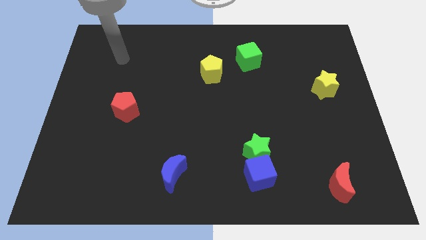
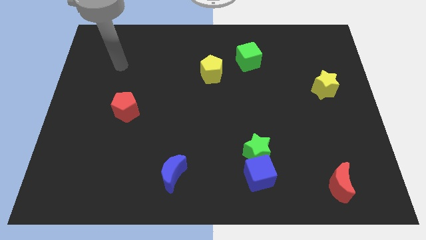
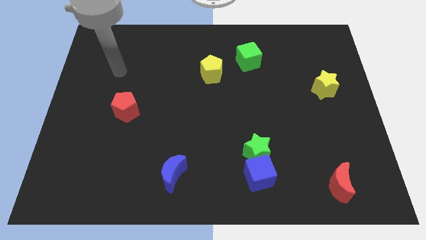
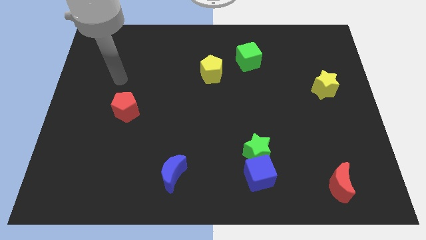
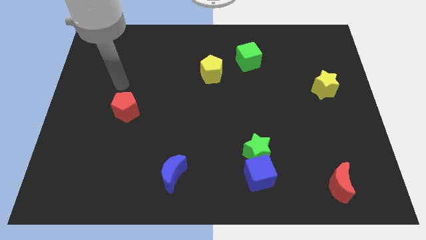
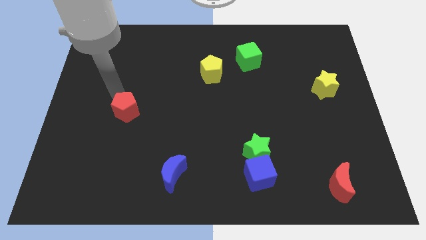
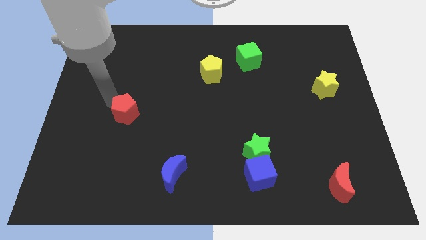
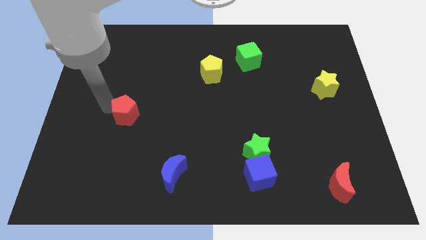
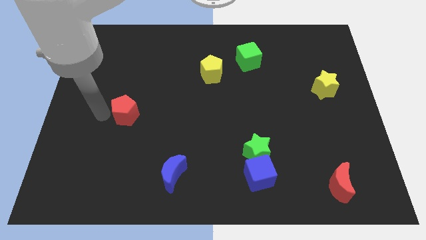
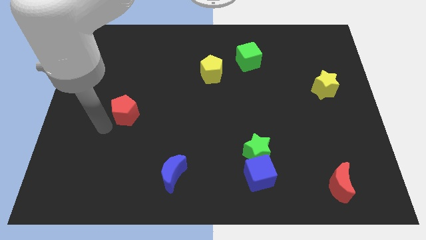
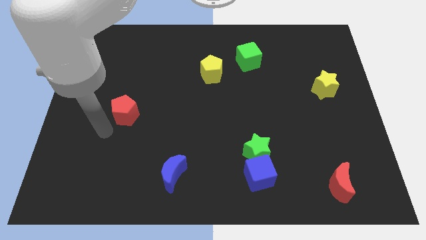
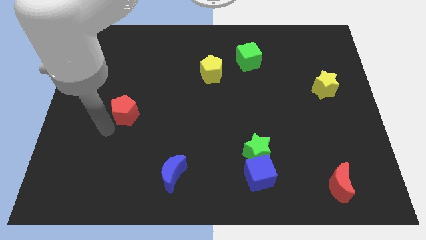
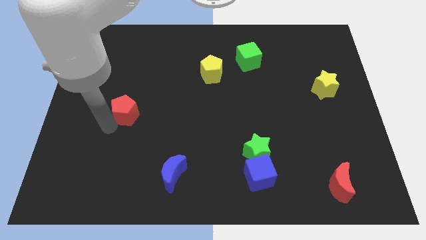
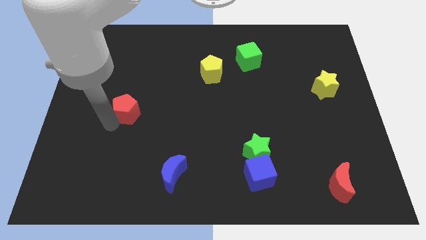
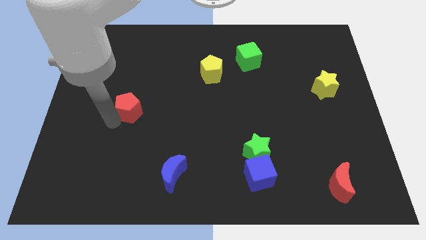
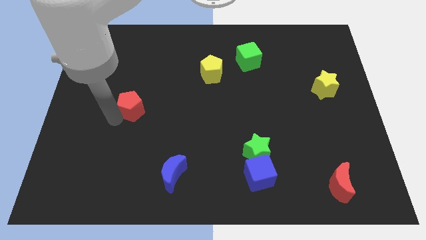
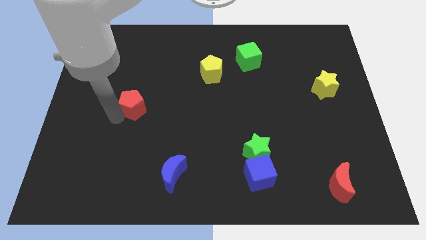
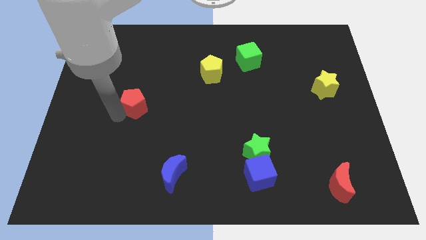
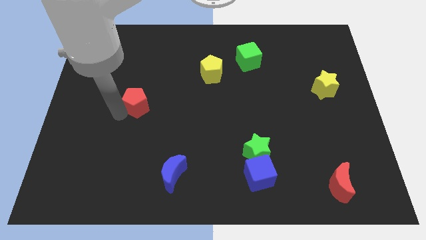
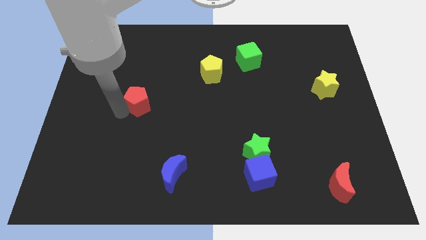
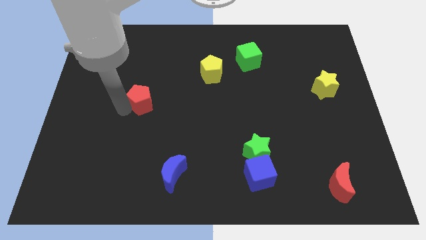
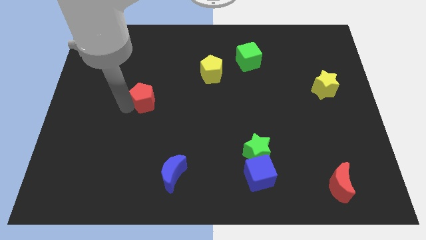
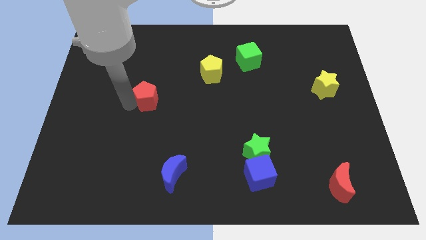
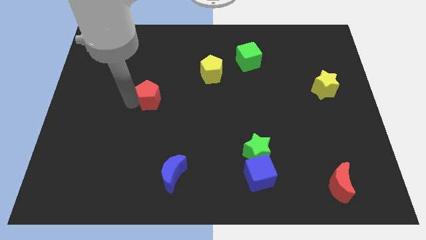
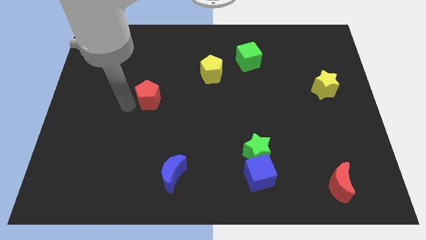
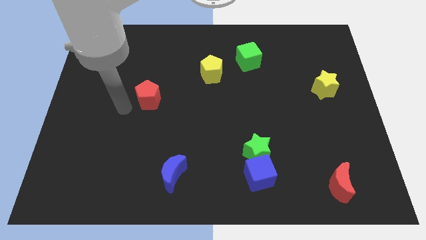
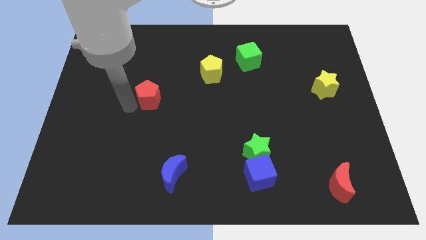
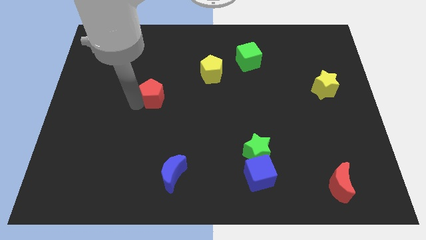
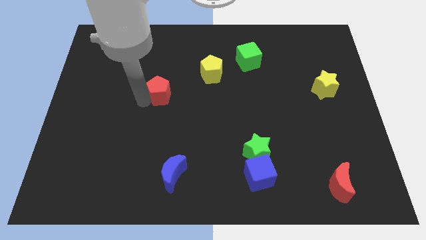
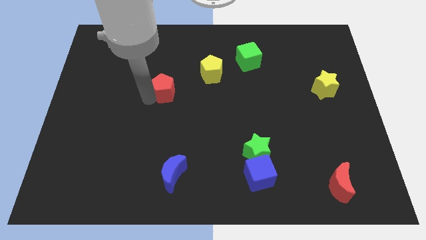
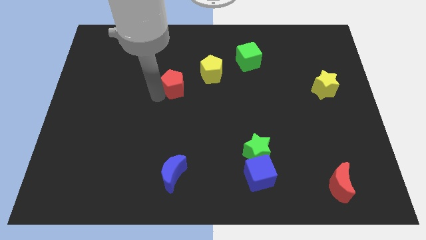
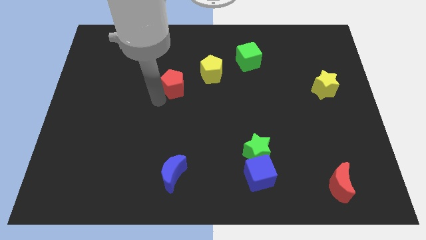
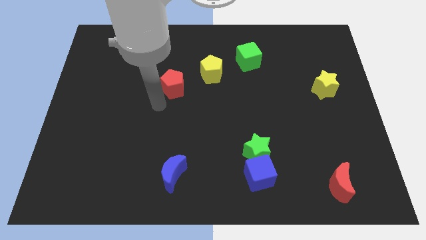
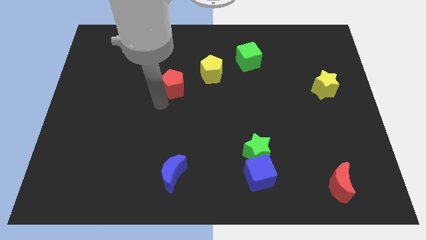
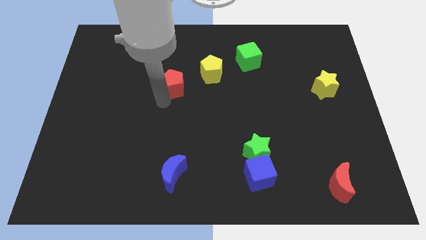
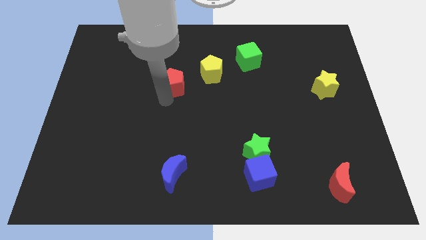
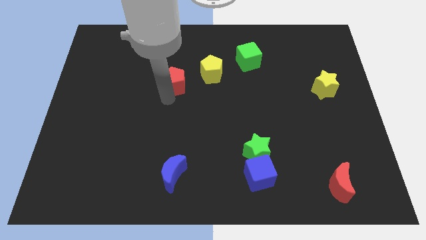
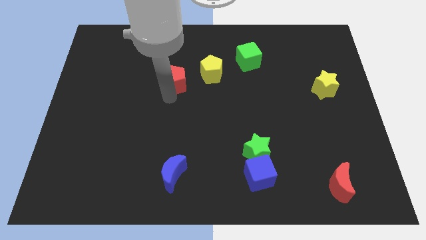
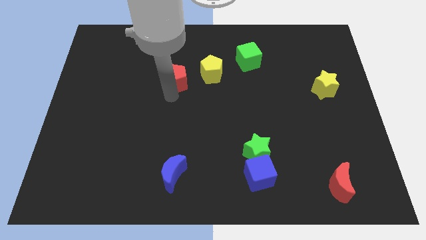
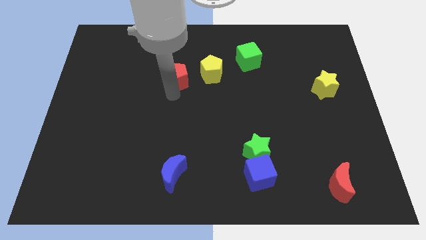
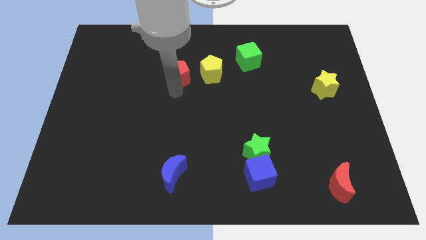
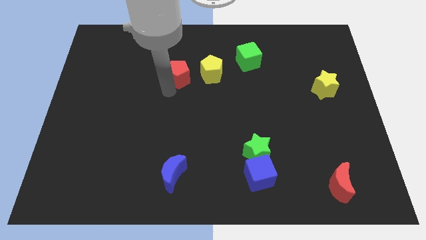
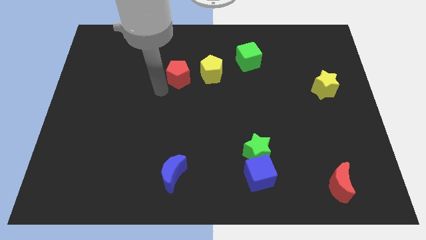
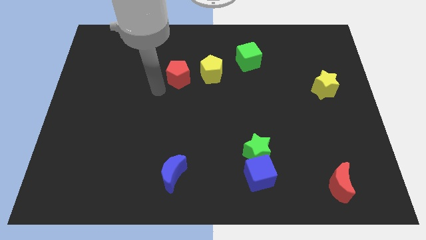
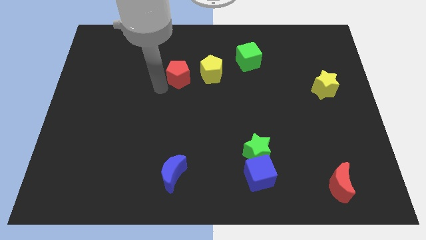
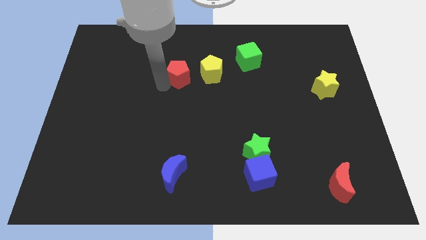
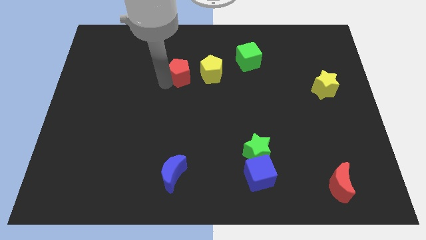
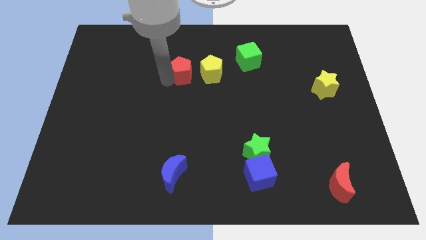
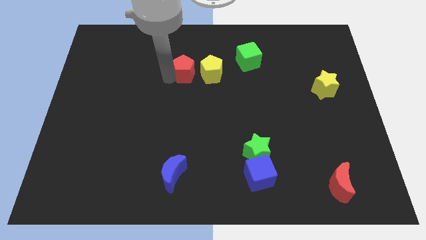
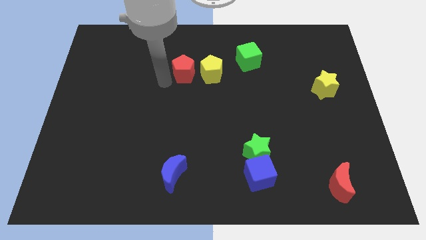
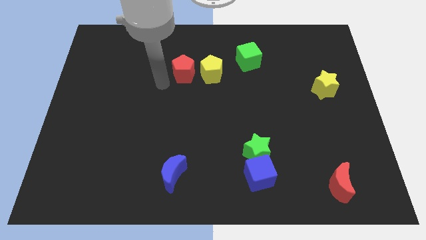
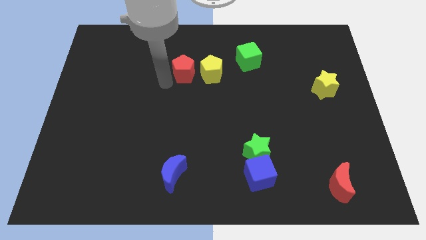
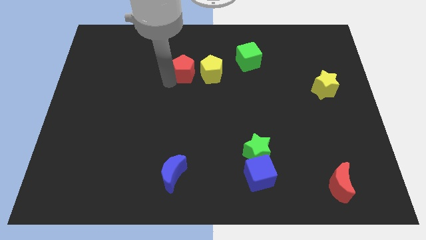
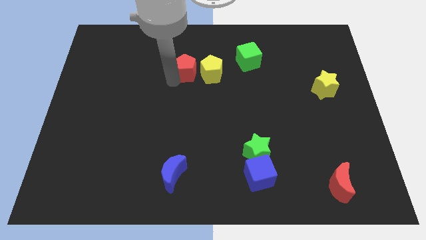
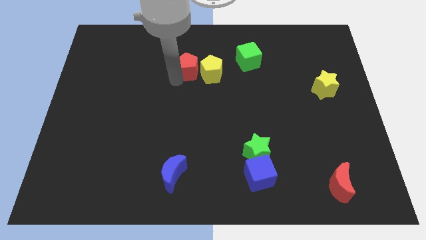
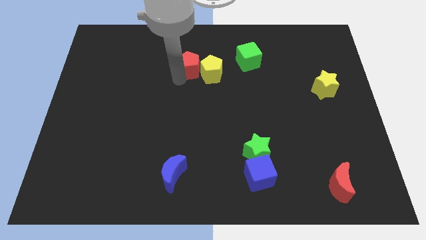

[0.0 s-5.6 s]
push the red pentagon to the left side of the green cube

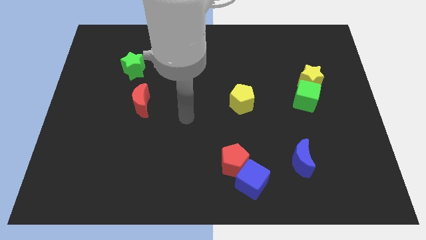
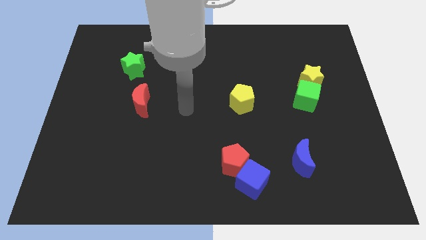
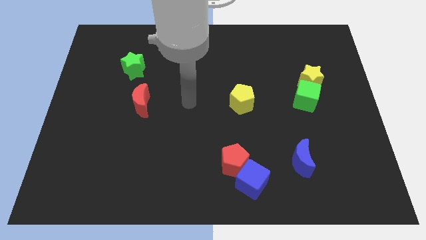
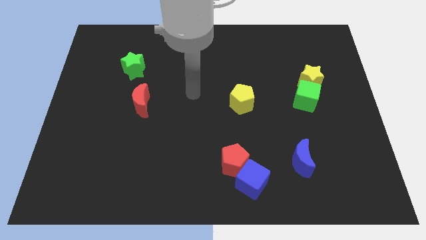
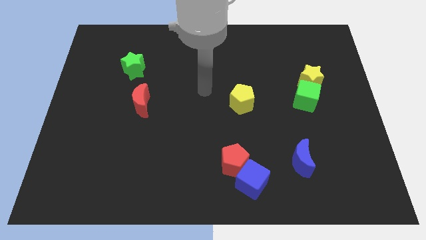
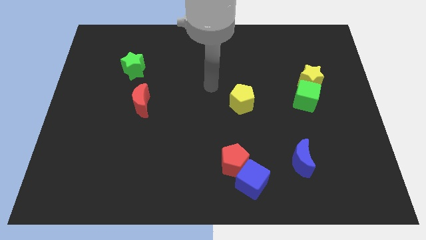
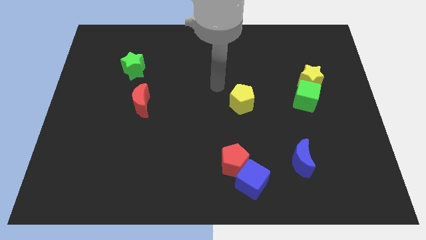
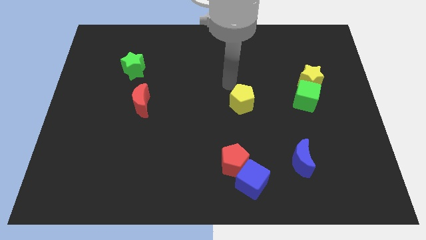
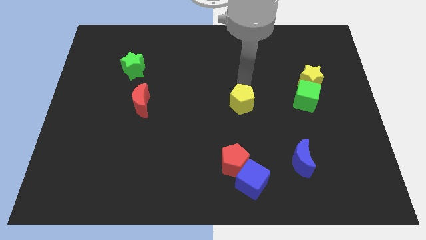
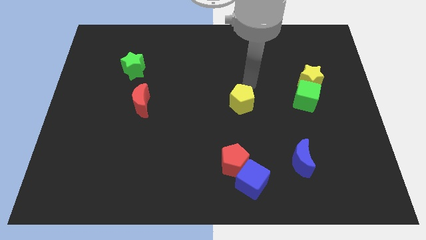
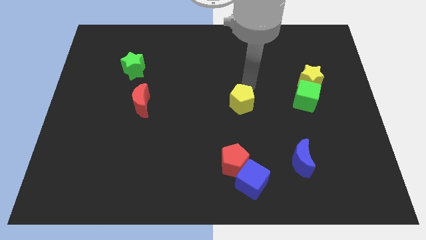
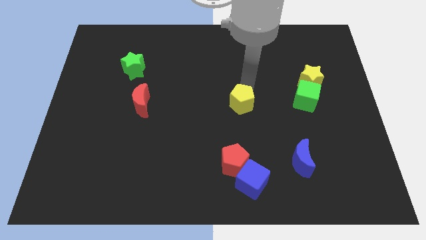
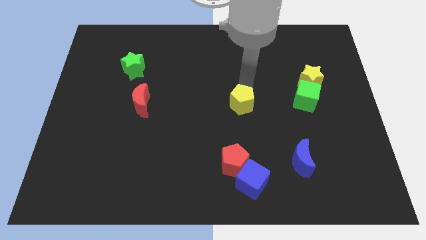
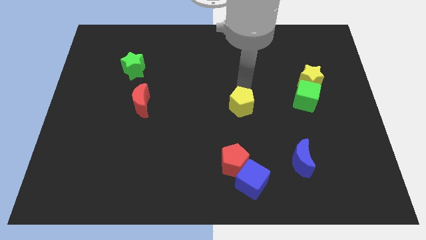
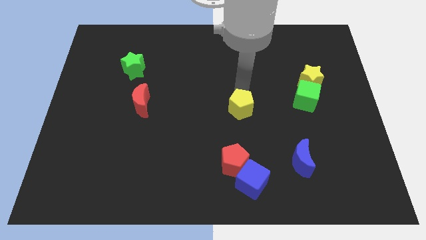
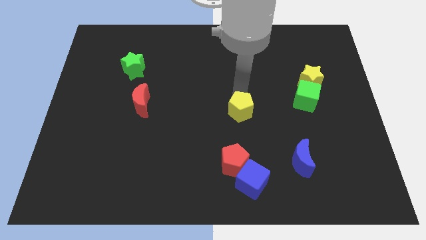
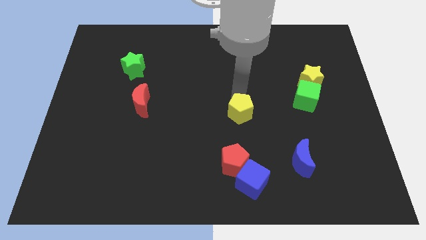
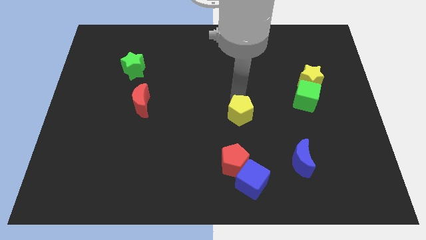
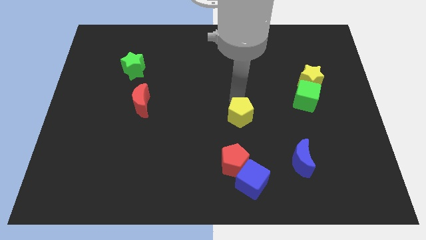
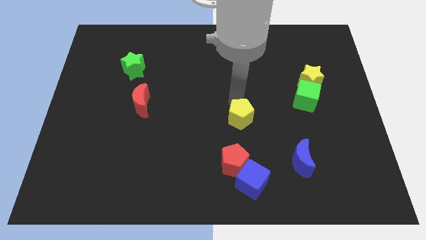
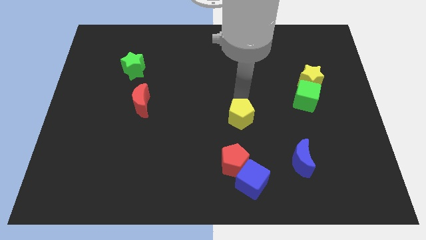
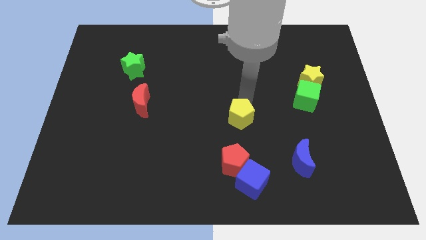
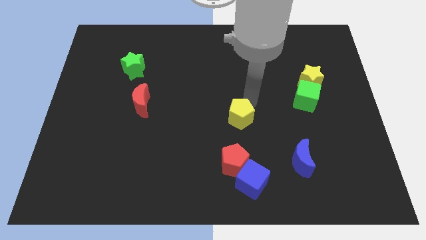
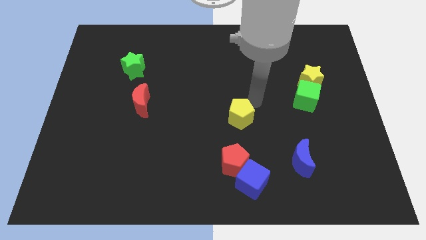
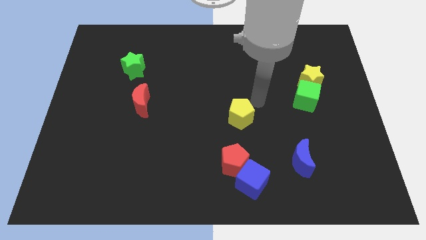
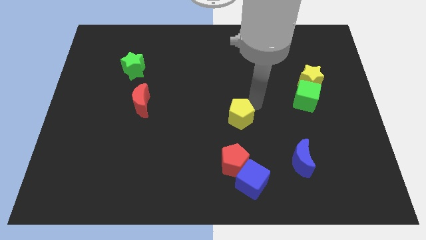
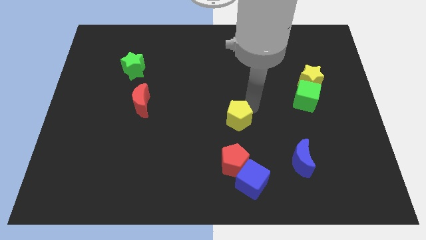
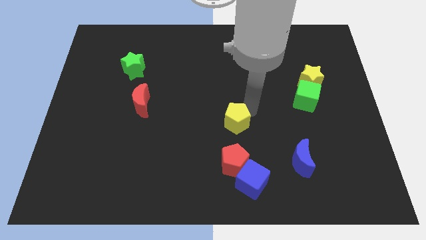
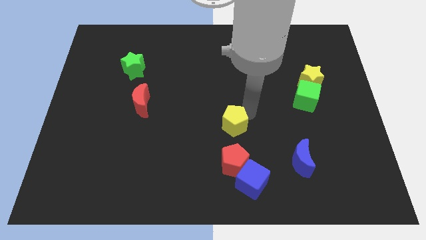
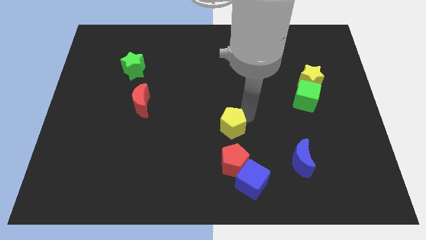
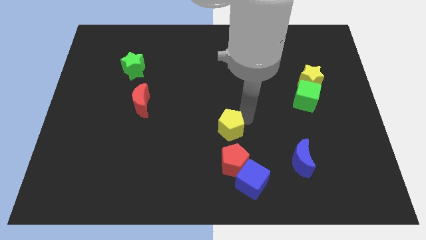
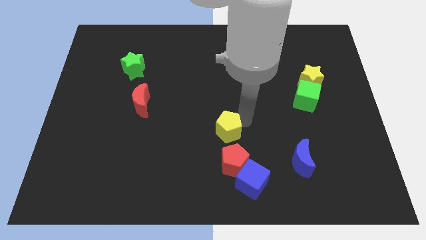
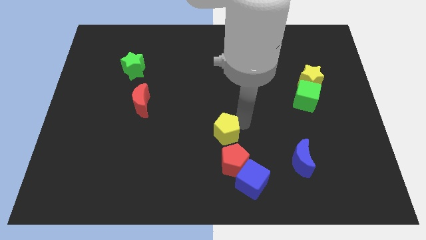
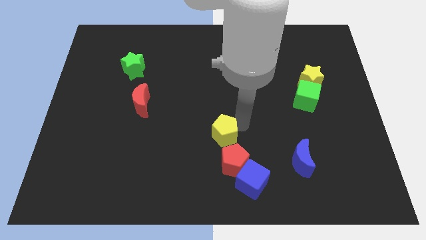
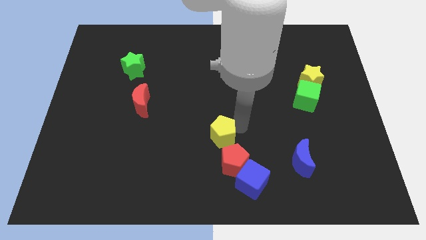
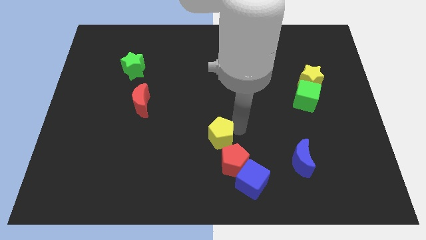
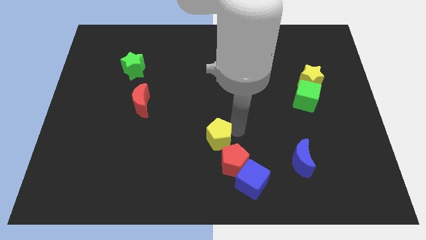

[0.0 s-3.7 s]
slide the yellow pentagon to the top left side of the blue cube
